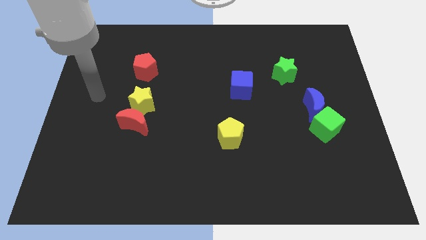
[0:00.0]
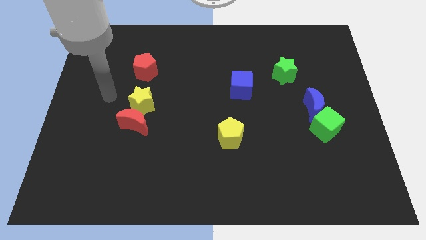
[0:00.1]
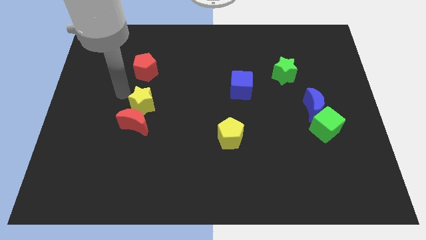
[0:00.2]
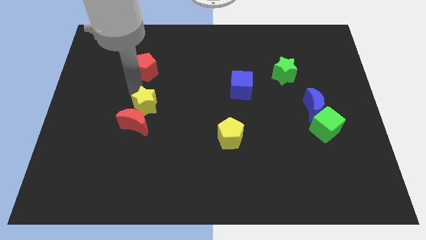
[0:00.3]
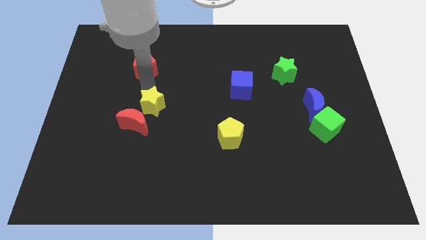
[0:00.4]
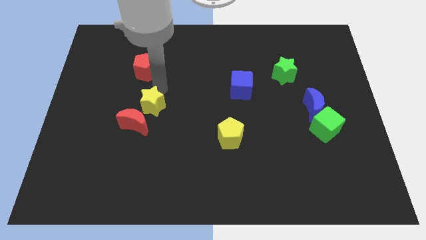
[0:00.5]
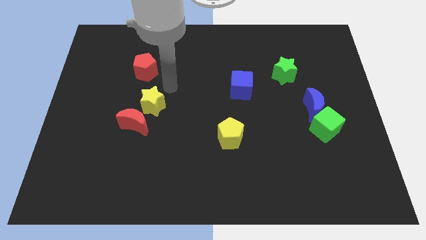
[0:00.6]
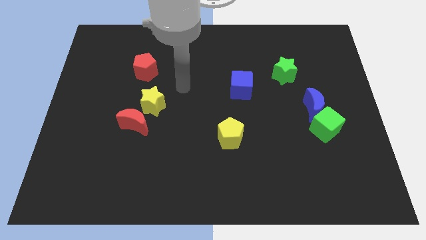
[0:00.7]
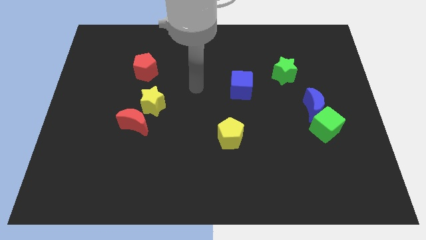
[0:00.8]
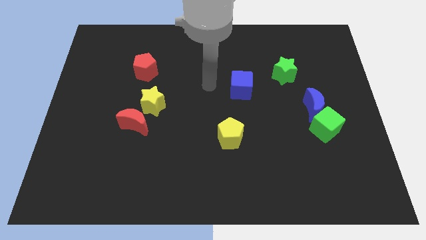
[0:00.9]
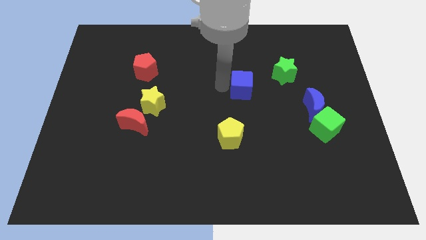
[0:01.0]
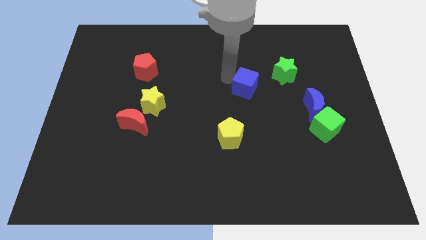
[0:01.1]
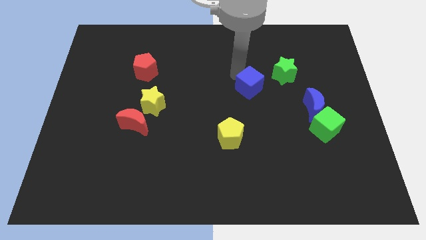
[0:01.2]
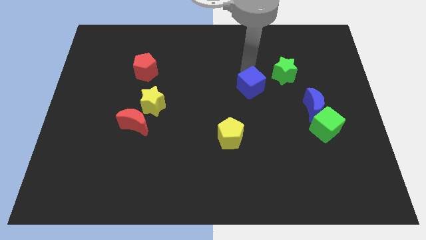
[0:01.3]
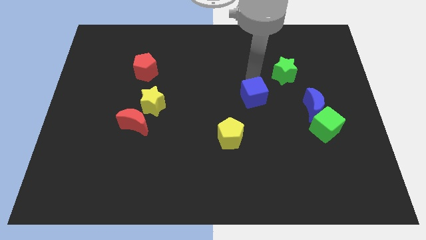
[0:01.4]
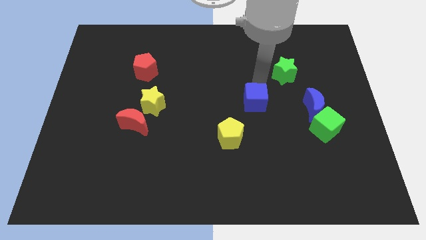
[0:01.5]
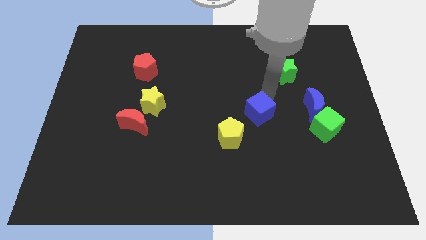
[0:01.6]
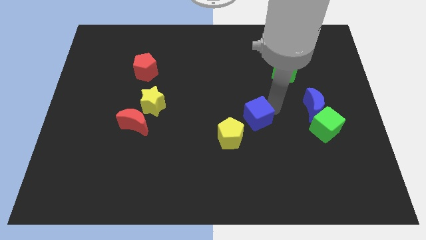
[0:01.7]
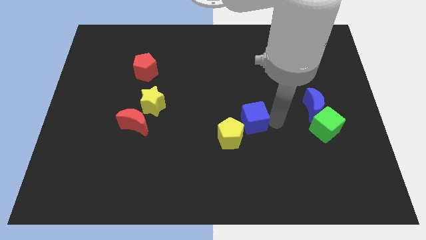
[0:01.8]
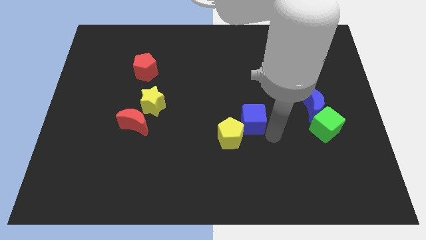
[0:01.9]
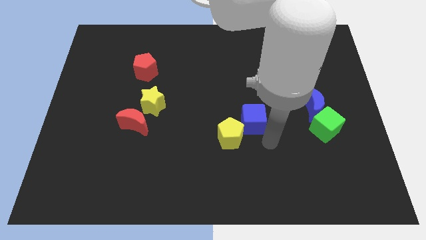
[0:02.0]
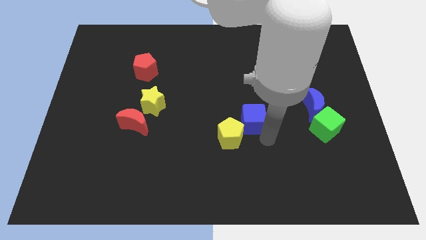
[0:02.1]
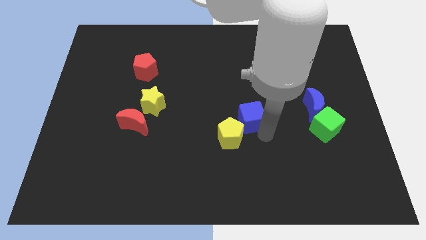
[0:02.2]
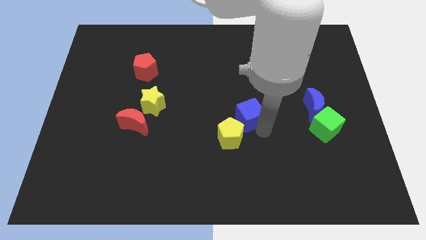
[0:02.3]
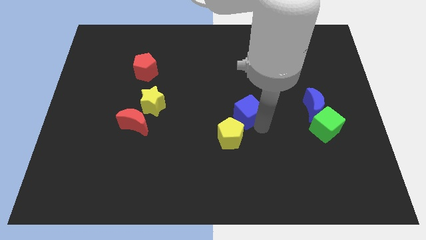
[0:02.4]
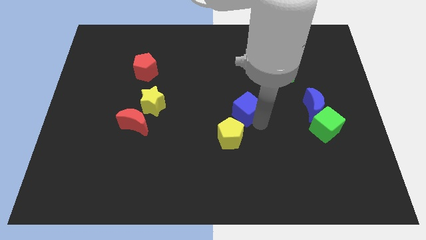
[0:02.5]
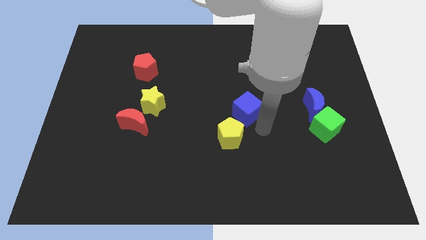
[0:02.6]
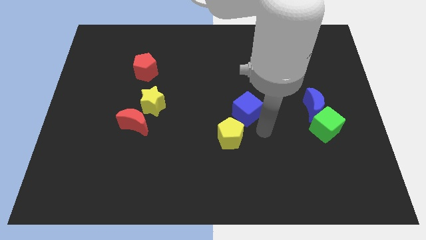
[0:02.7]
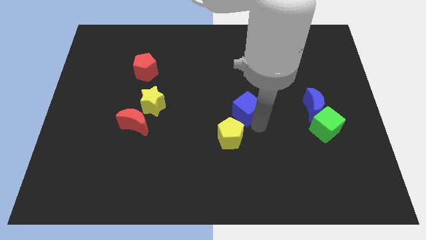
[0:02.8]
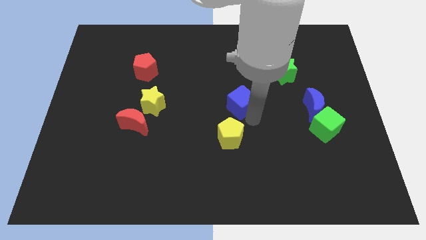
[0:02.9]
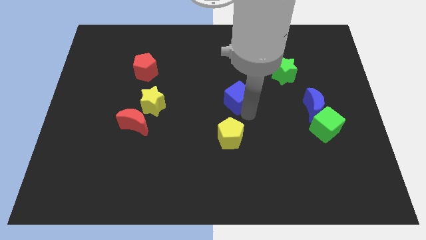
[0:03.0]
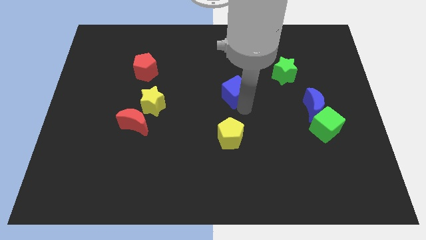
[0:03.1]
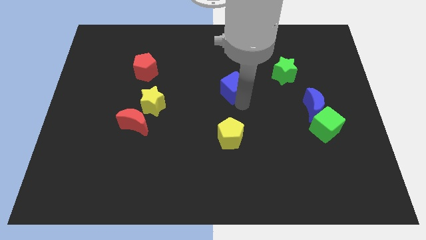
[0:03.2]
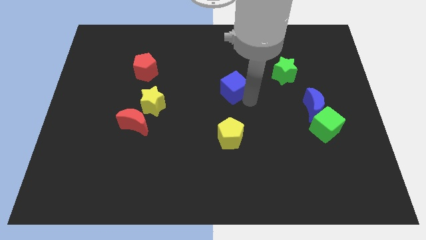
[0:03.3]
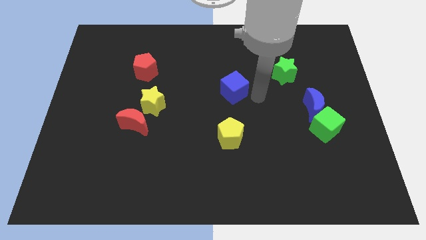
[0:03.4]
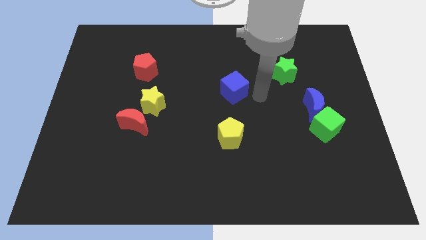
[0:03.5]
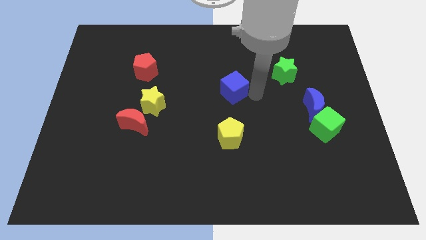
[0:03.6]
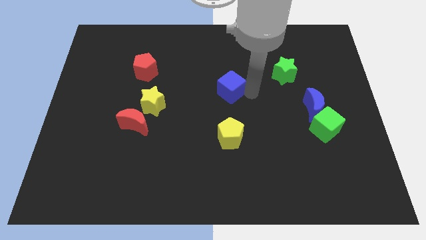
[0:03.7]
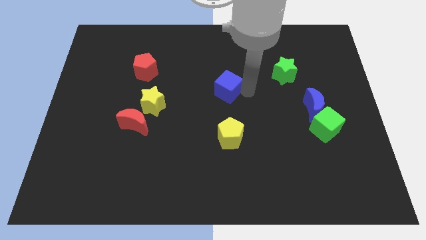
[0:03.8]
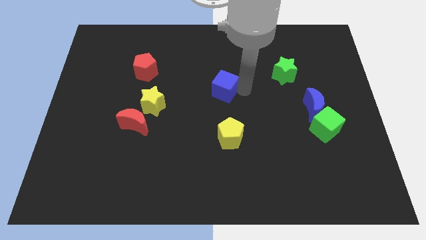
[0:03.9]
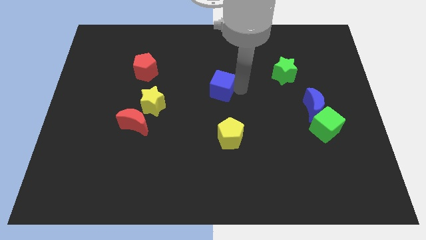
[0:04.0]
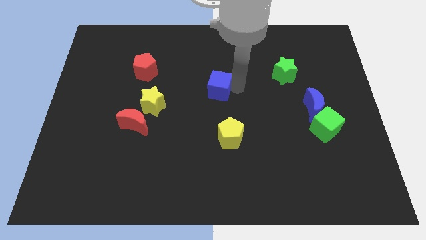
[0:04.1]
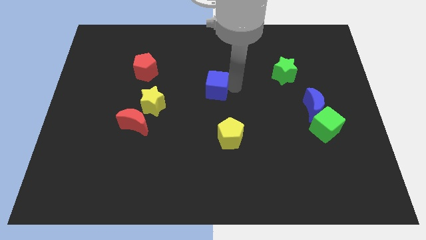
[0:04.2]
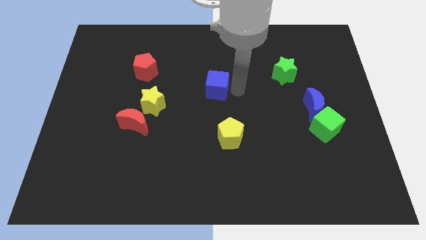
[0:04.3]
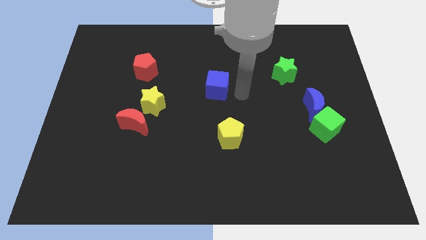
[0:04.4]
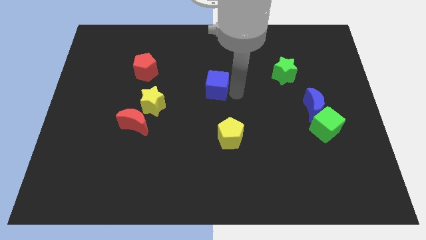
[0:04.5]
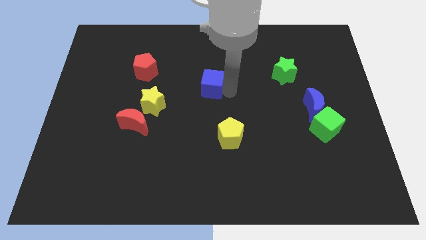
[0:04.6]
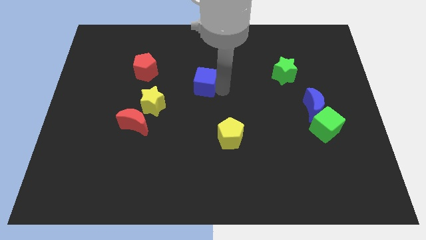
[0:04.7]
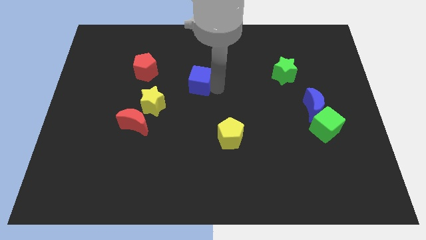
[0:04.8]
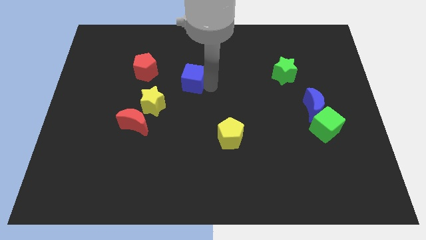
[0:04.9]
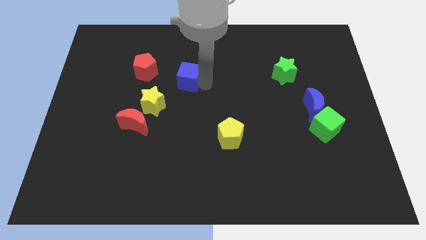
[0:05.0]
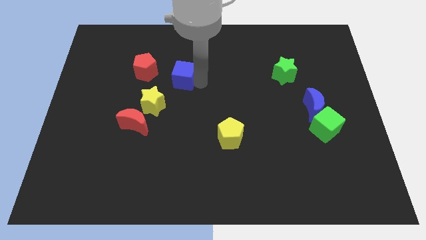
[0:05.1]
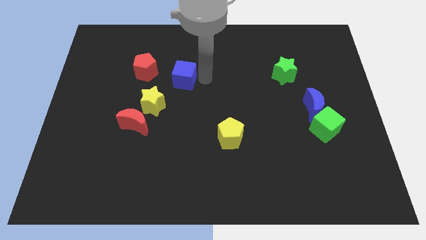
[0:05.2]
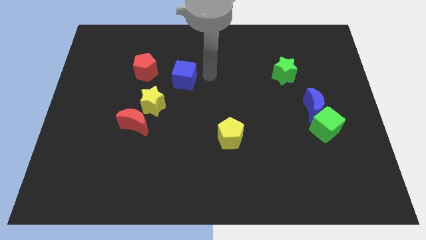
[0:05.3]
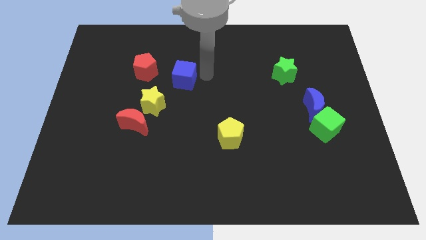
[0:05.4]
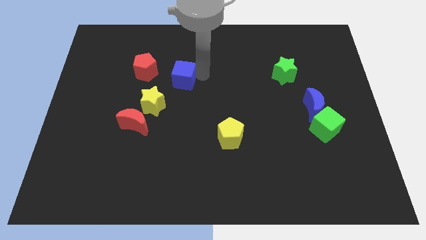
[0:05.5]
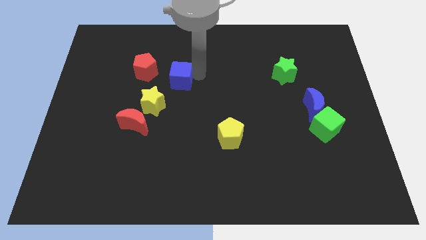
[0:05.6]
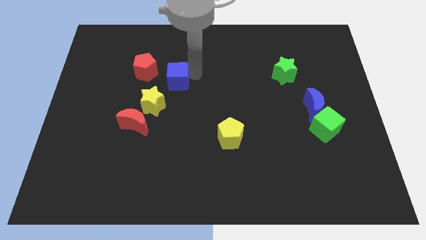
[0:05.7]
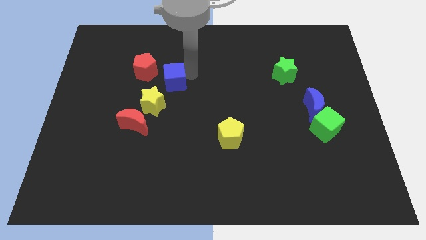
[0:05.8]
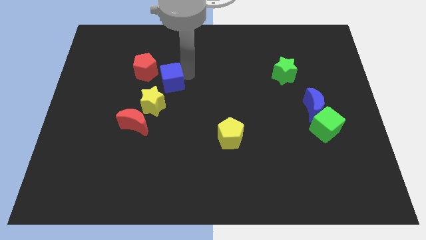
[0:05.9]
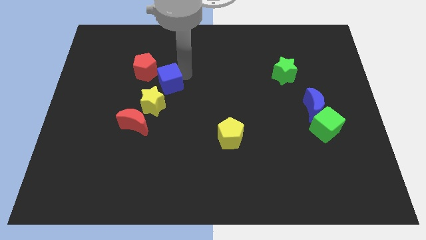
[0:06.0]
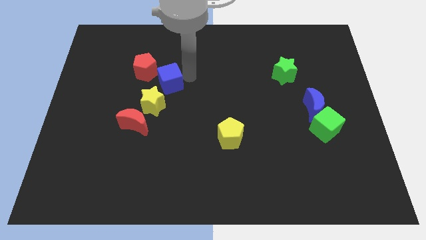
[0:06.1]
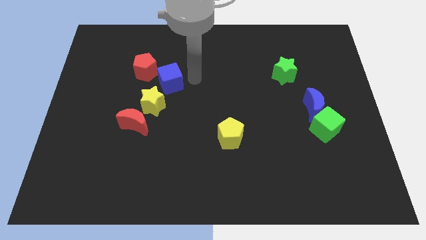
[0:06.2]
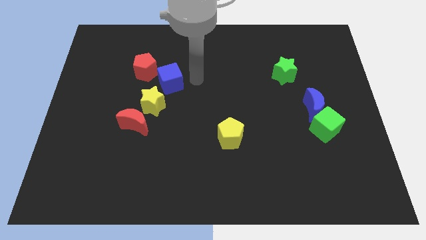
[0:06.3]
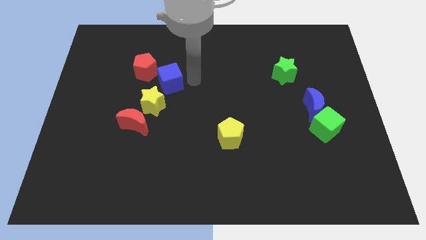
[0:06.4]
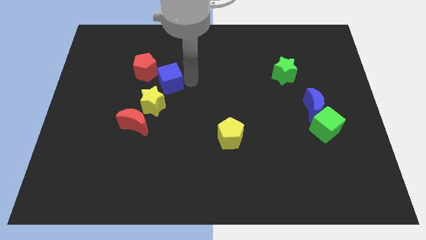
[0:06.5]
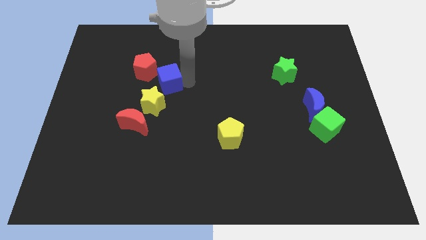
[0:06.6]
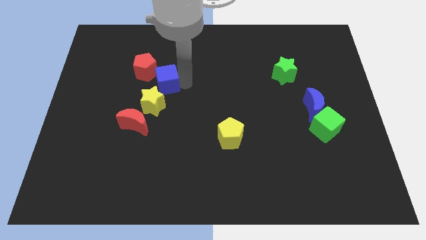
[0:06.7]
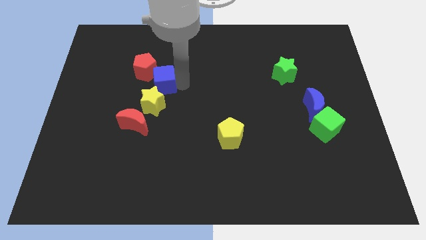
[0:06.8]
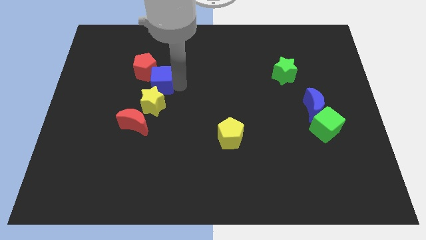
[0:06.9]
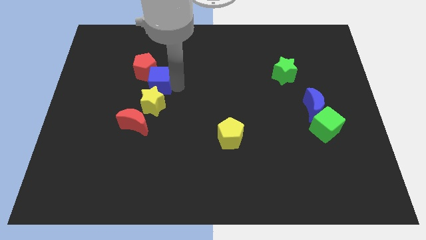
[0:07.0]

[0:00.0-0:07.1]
slide the blue cube left

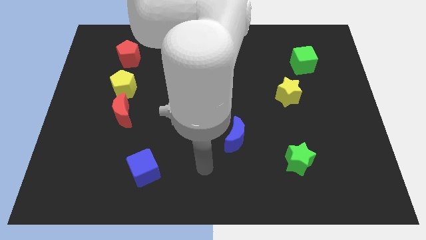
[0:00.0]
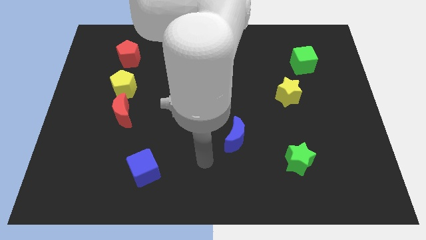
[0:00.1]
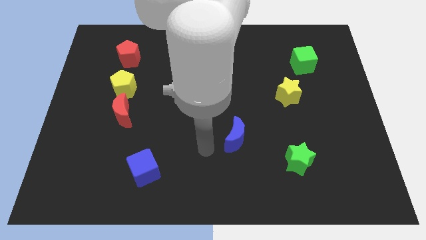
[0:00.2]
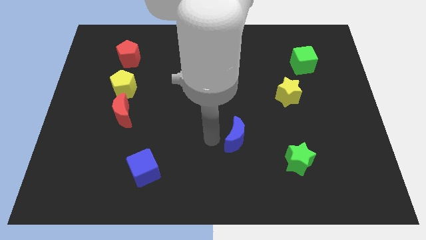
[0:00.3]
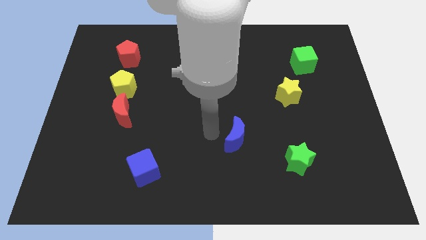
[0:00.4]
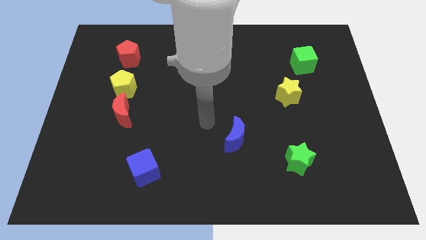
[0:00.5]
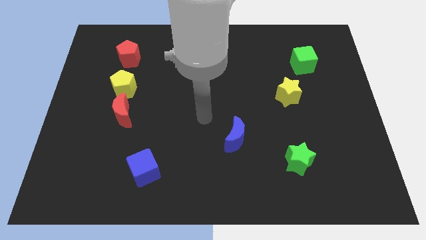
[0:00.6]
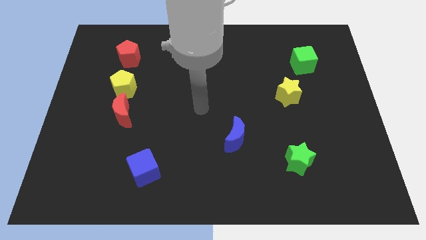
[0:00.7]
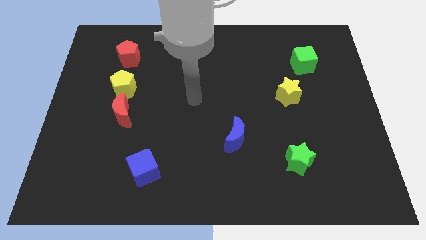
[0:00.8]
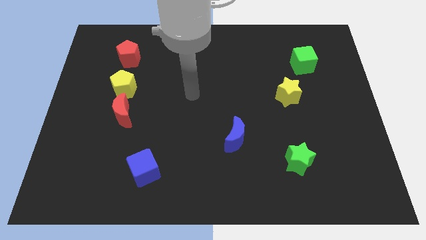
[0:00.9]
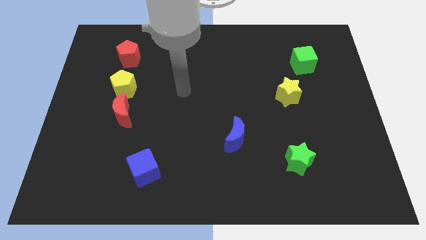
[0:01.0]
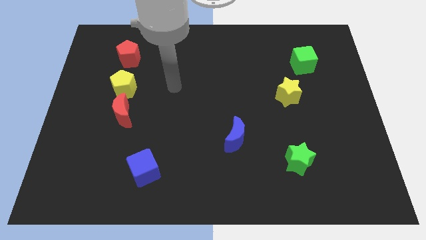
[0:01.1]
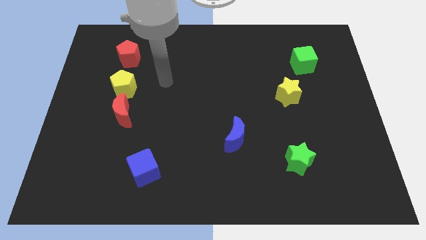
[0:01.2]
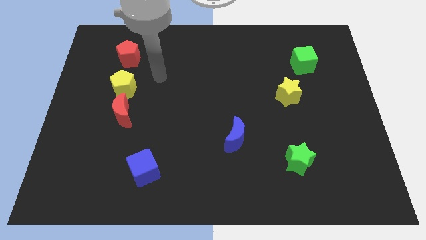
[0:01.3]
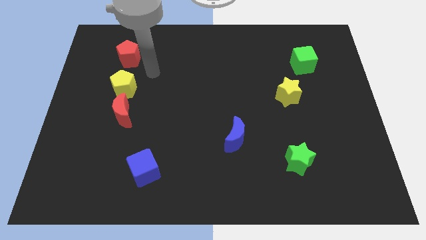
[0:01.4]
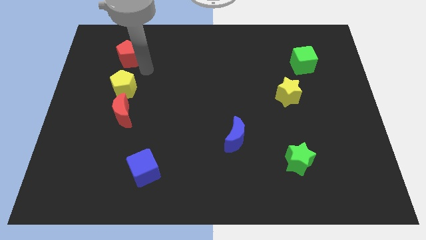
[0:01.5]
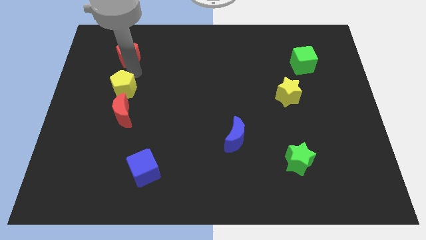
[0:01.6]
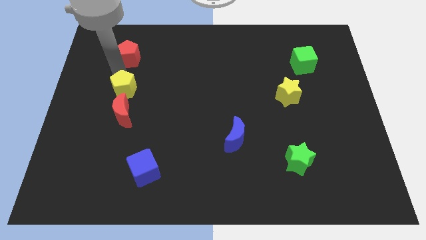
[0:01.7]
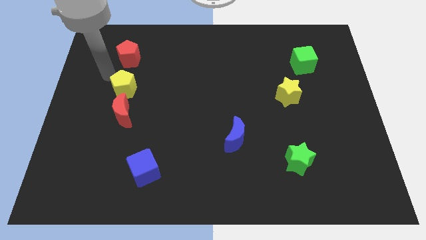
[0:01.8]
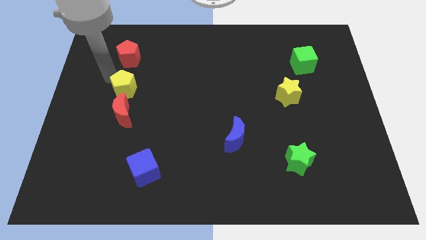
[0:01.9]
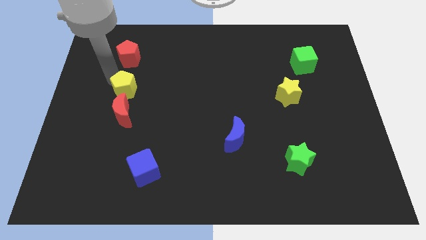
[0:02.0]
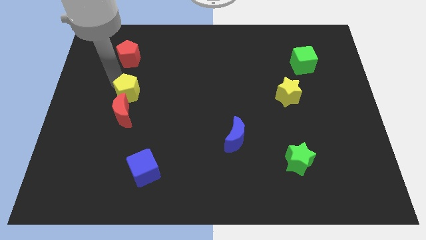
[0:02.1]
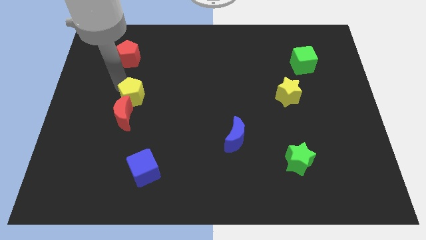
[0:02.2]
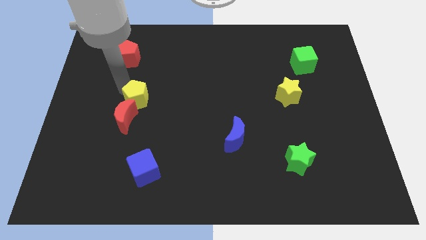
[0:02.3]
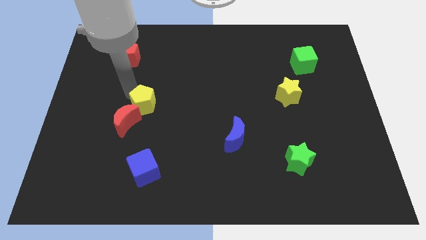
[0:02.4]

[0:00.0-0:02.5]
slightly move the yellow pentagon downwards and then right
